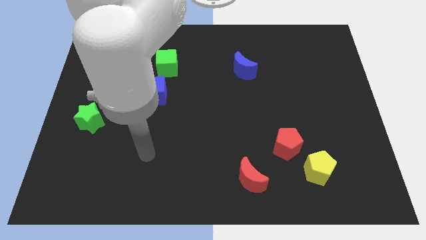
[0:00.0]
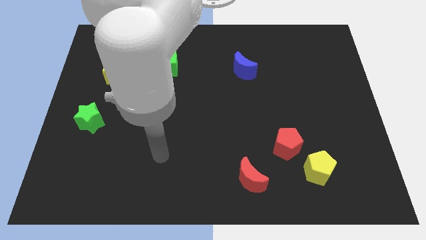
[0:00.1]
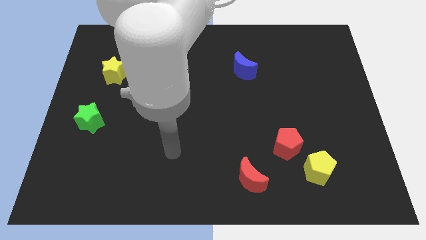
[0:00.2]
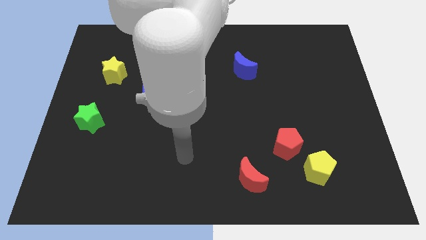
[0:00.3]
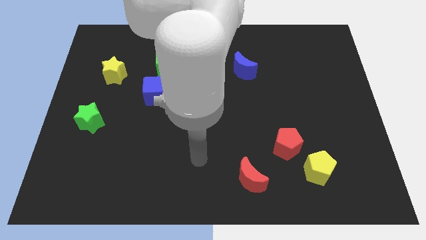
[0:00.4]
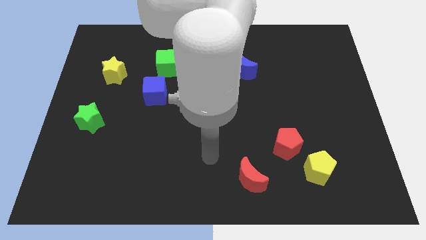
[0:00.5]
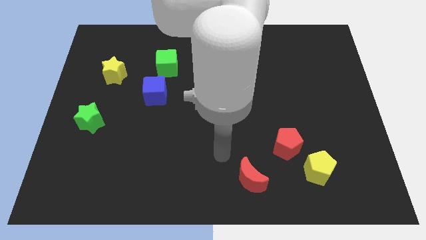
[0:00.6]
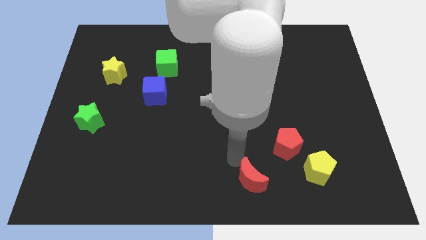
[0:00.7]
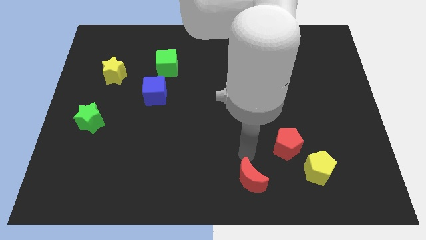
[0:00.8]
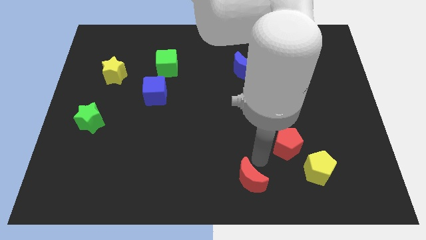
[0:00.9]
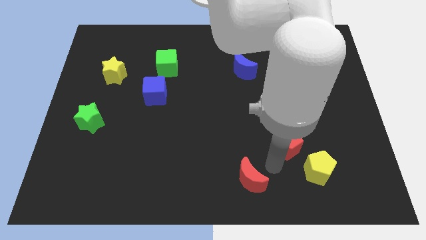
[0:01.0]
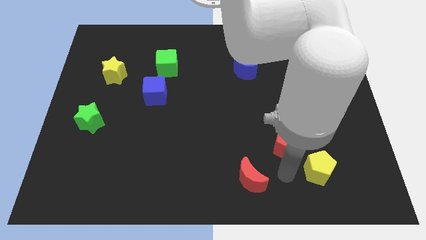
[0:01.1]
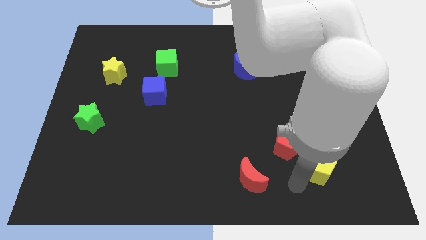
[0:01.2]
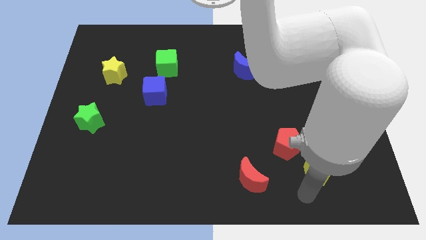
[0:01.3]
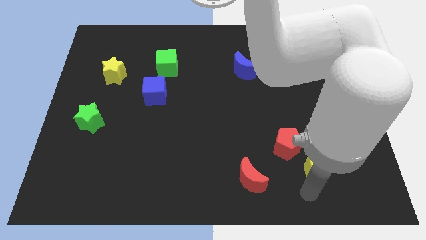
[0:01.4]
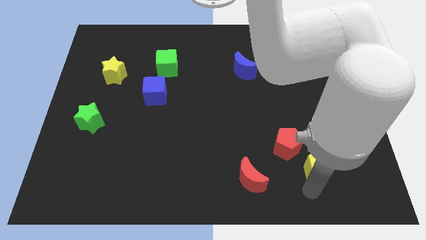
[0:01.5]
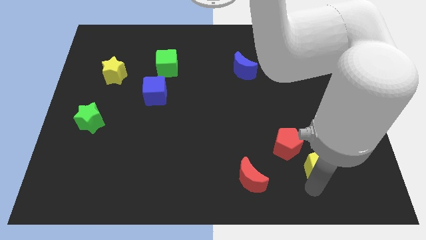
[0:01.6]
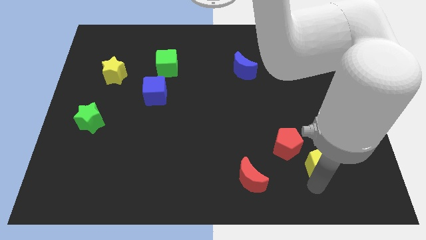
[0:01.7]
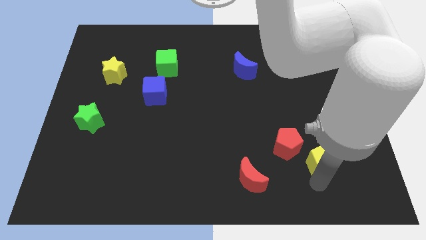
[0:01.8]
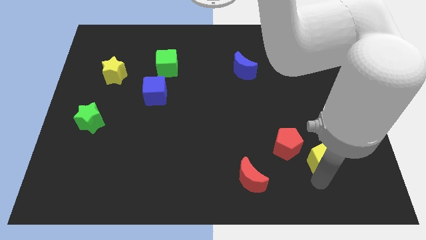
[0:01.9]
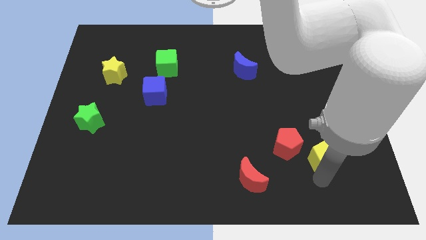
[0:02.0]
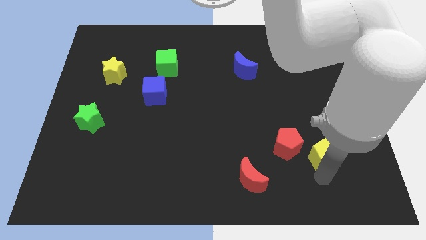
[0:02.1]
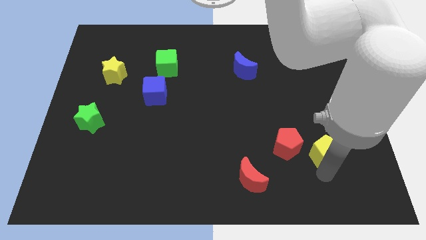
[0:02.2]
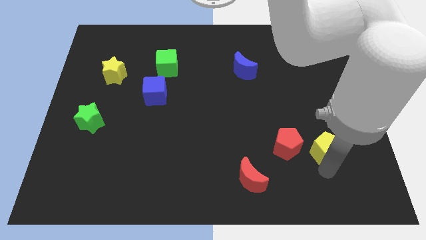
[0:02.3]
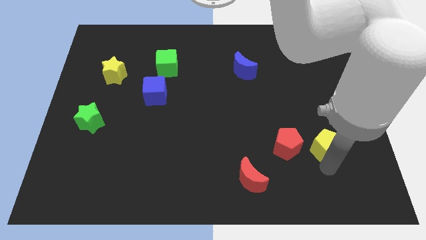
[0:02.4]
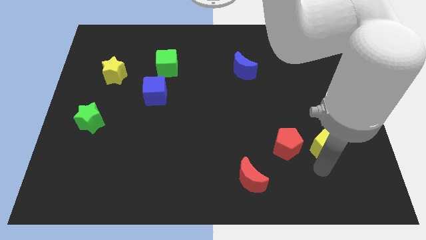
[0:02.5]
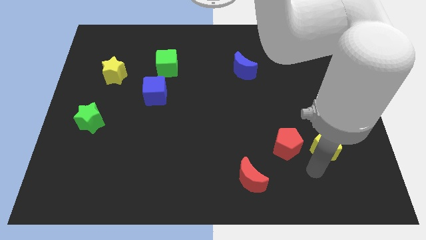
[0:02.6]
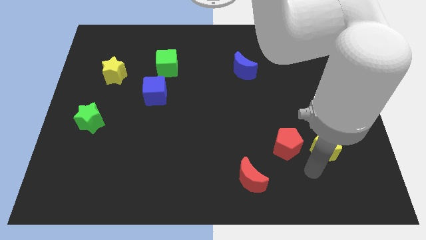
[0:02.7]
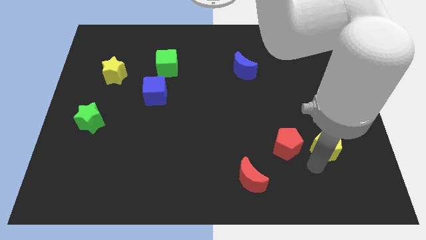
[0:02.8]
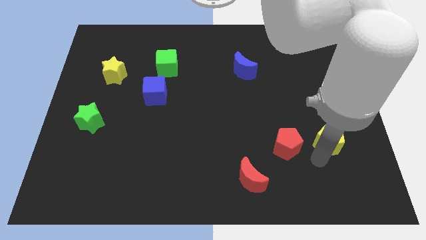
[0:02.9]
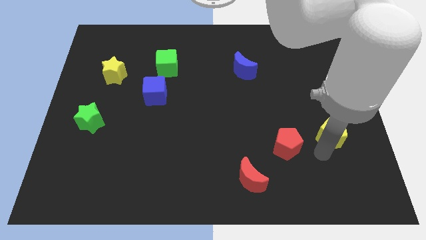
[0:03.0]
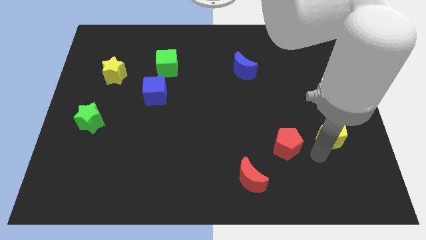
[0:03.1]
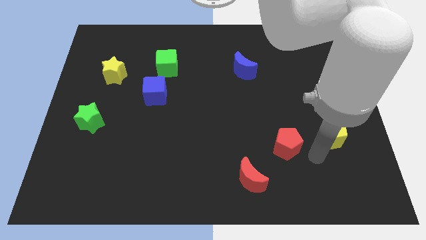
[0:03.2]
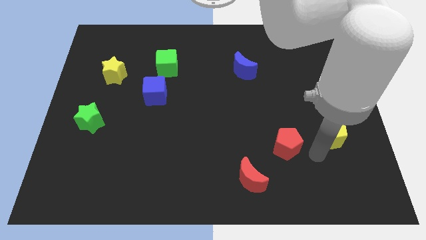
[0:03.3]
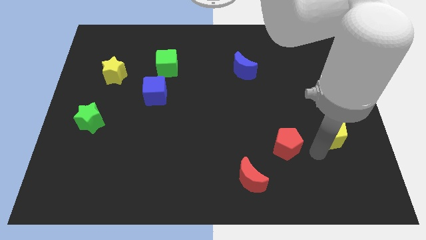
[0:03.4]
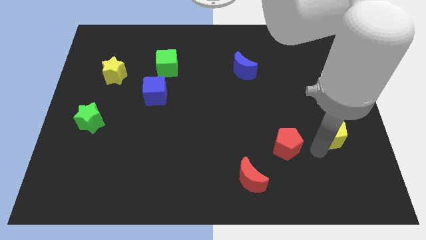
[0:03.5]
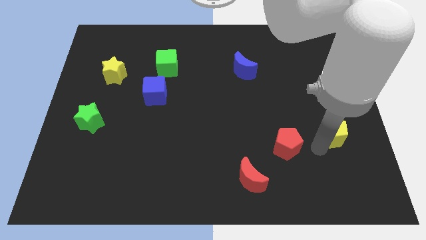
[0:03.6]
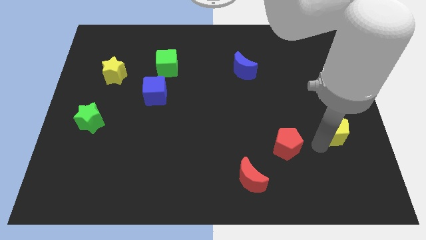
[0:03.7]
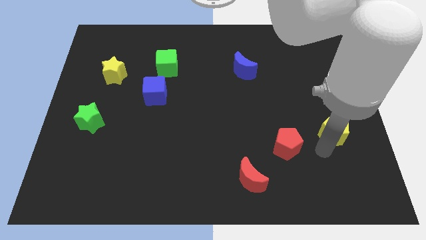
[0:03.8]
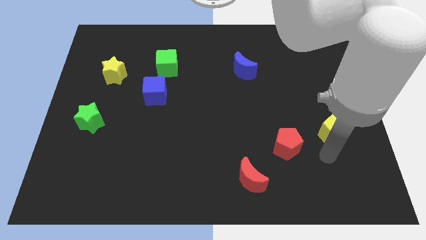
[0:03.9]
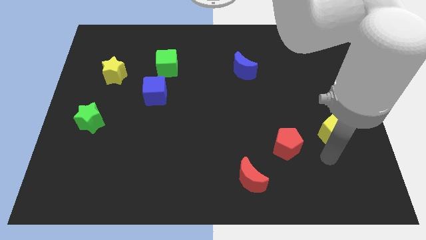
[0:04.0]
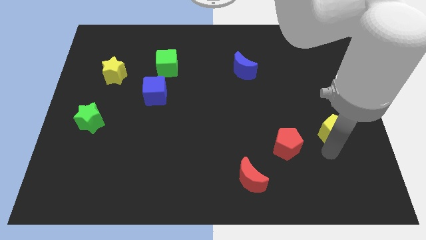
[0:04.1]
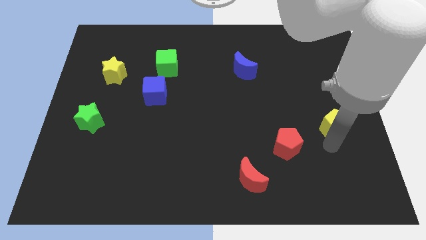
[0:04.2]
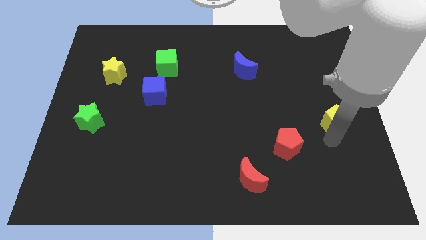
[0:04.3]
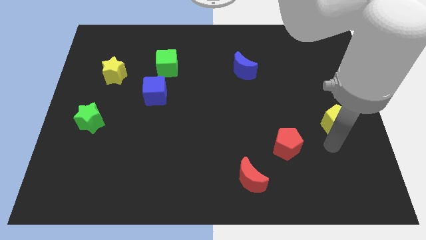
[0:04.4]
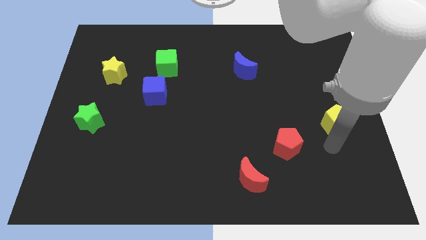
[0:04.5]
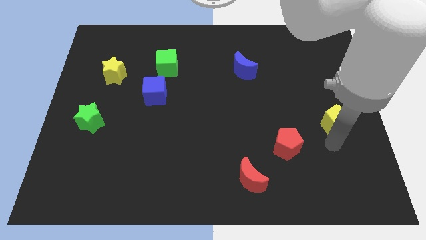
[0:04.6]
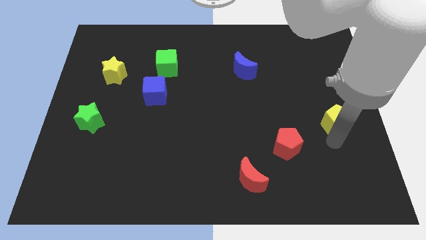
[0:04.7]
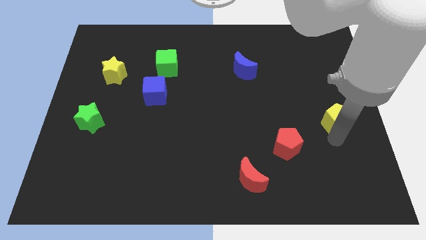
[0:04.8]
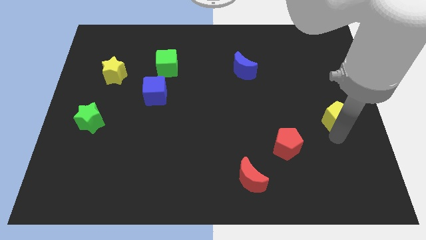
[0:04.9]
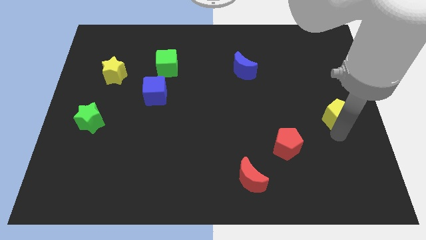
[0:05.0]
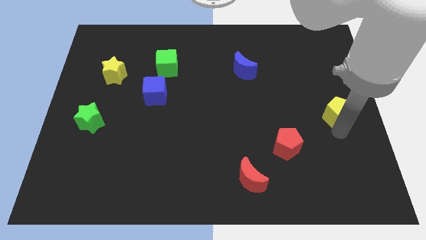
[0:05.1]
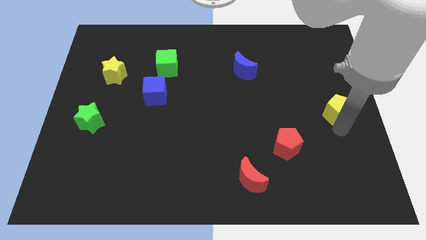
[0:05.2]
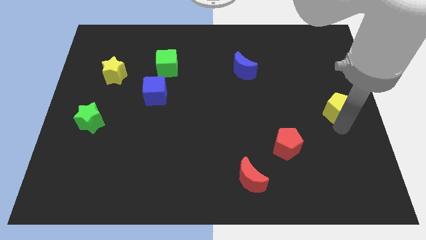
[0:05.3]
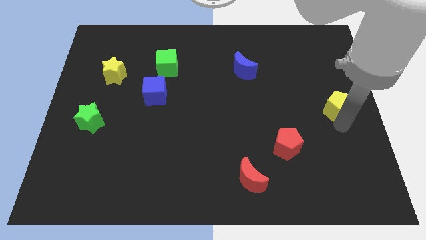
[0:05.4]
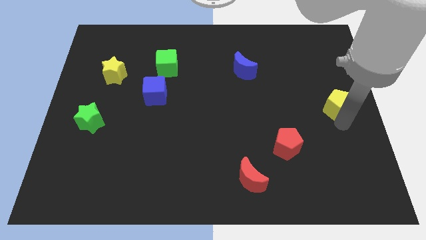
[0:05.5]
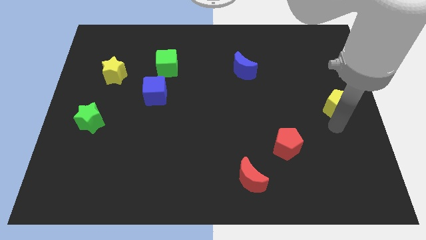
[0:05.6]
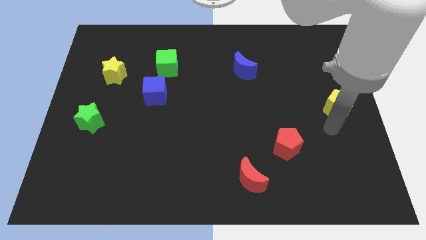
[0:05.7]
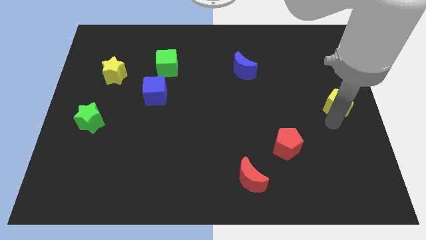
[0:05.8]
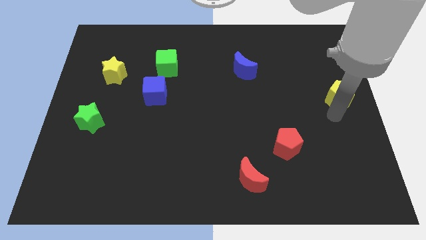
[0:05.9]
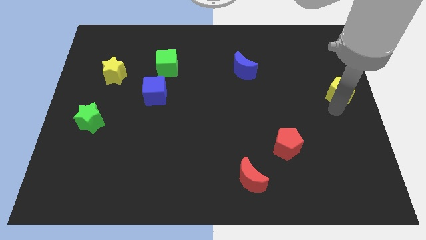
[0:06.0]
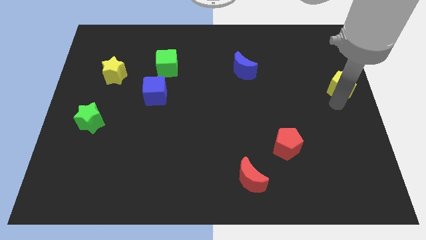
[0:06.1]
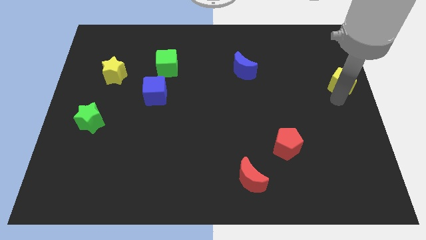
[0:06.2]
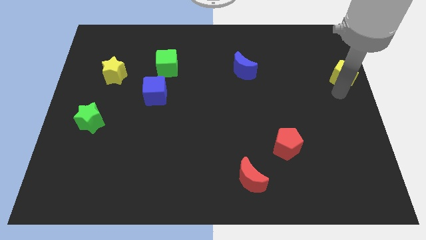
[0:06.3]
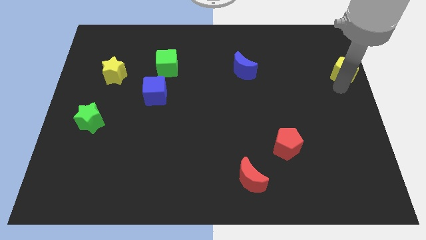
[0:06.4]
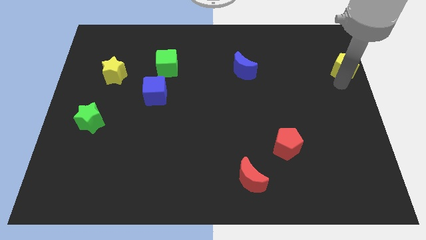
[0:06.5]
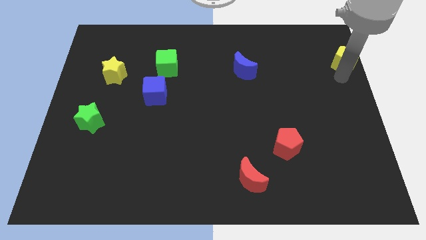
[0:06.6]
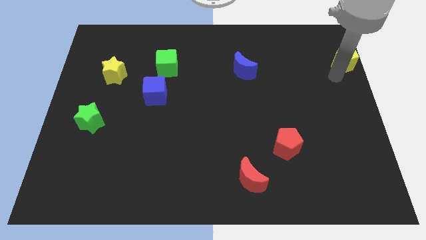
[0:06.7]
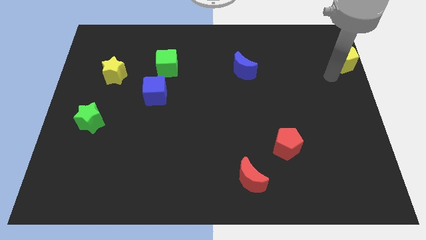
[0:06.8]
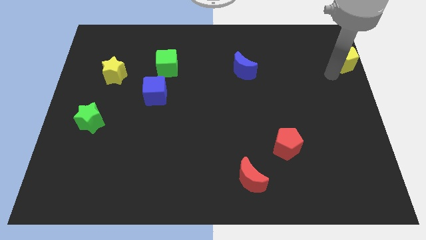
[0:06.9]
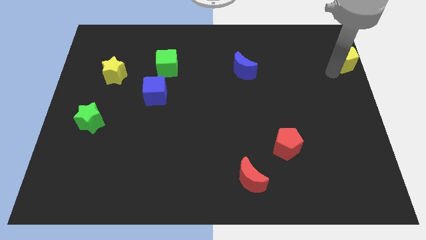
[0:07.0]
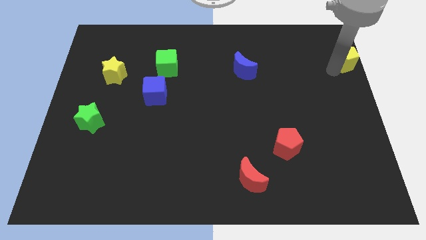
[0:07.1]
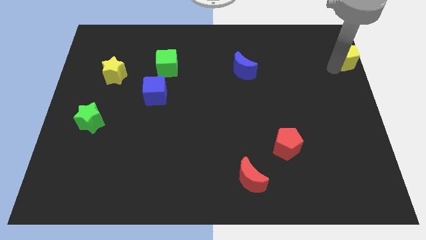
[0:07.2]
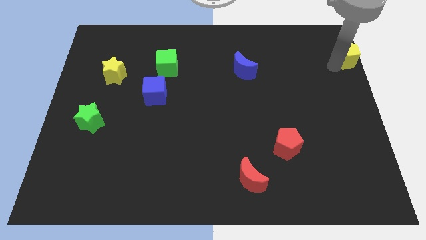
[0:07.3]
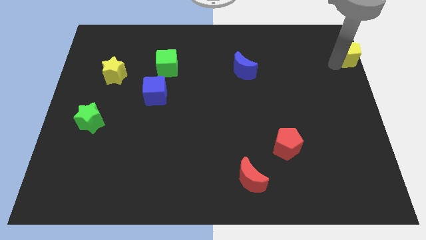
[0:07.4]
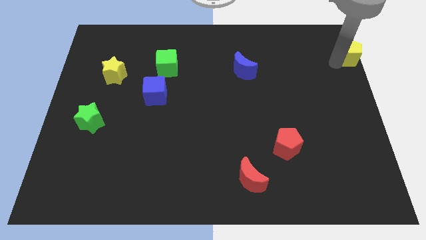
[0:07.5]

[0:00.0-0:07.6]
slide the yellow pentagon to the top right corner
